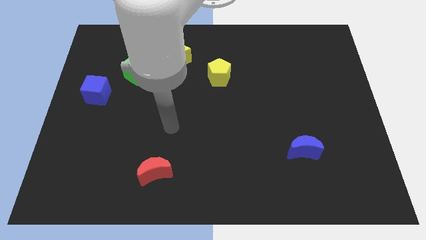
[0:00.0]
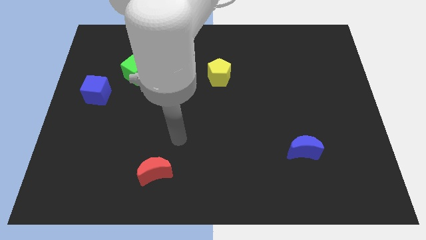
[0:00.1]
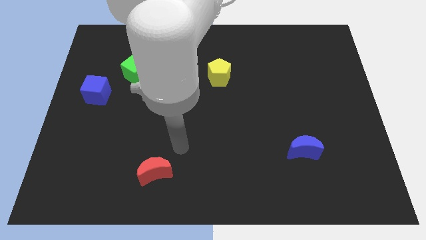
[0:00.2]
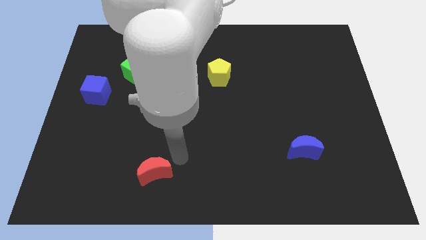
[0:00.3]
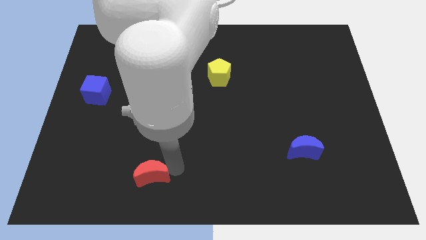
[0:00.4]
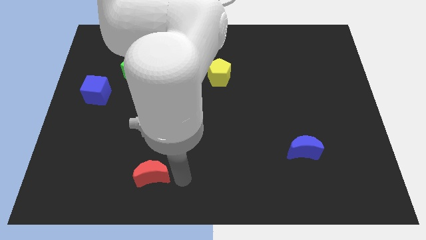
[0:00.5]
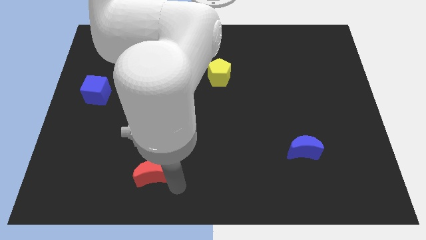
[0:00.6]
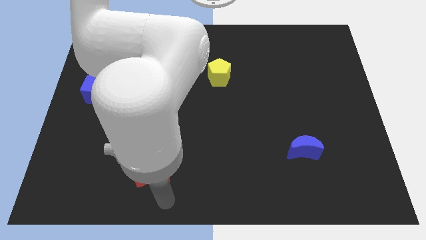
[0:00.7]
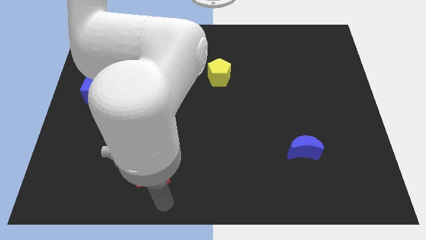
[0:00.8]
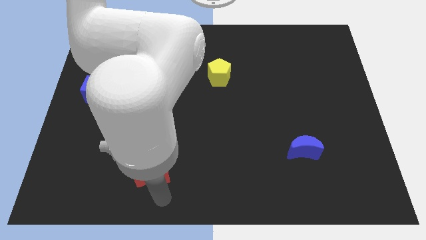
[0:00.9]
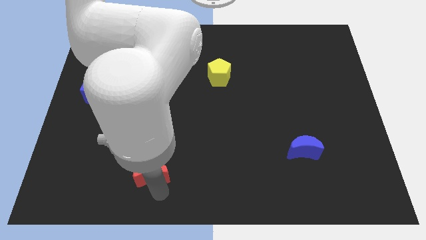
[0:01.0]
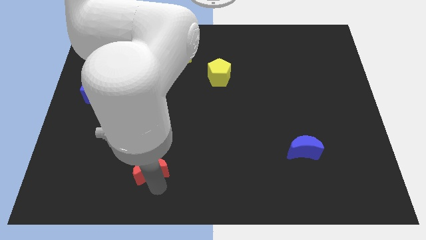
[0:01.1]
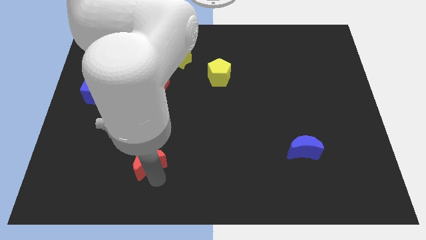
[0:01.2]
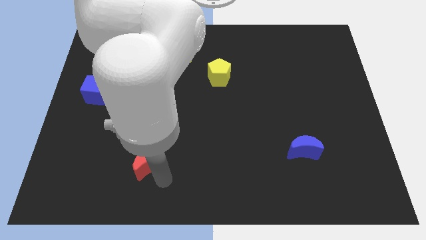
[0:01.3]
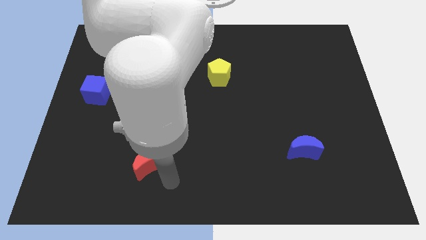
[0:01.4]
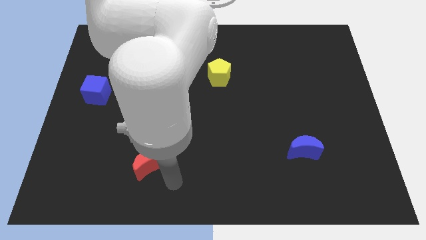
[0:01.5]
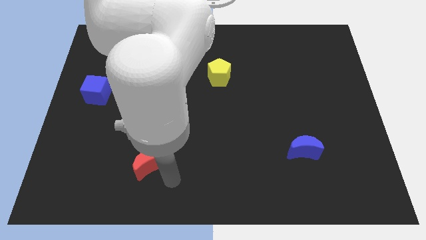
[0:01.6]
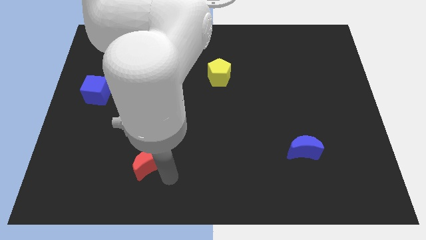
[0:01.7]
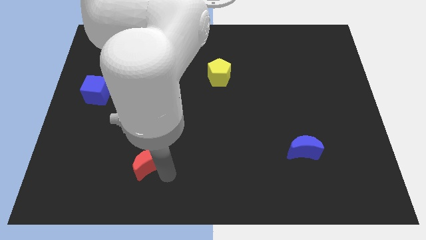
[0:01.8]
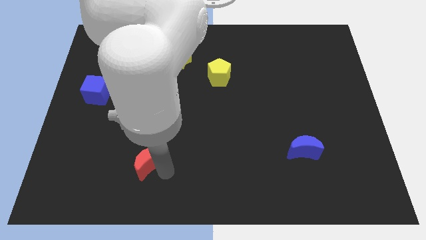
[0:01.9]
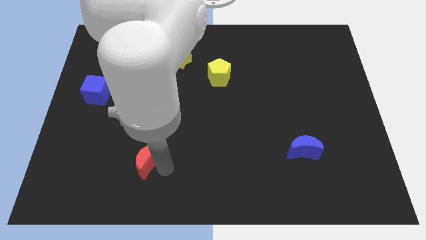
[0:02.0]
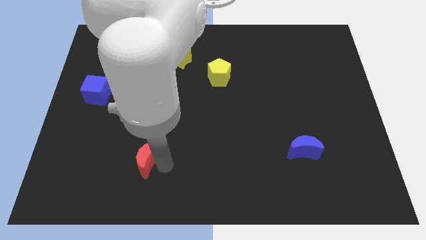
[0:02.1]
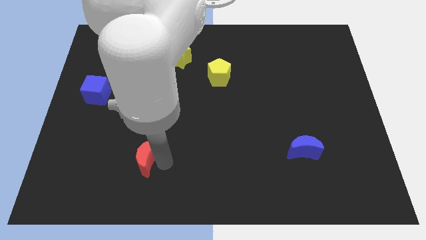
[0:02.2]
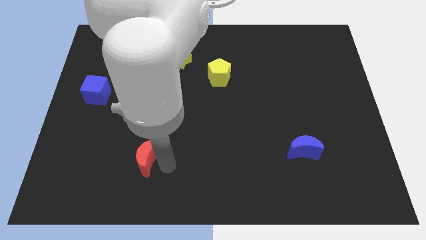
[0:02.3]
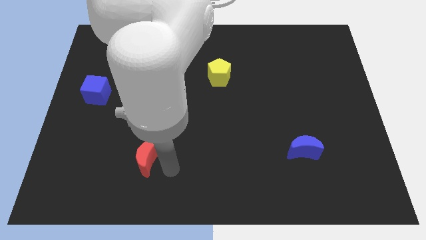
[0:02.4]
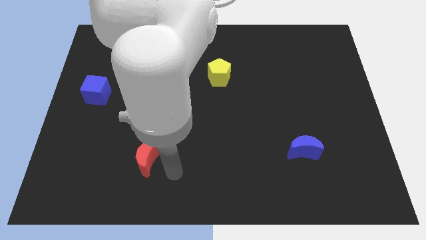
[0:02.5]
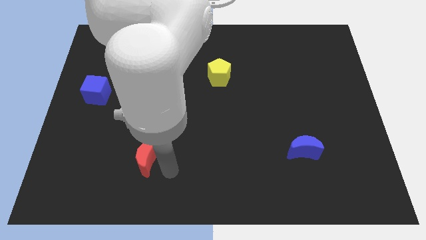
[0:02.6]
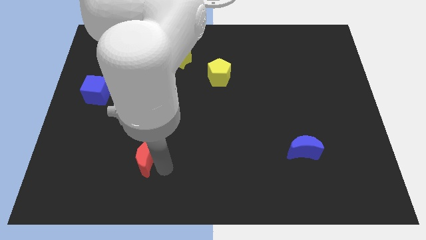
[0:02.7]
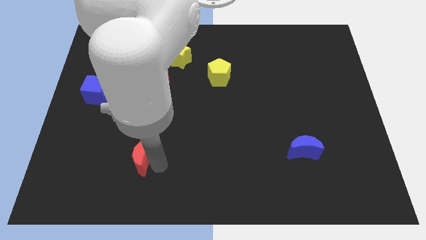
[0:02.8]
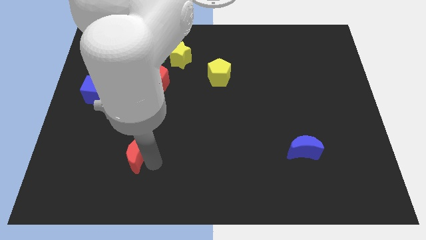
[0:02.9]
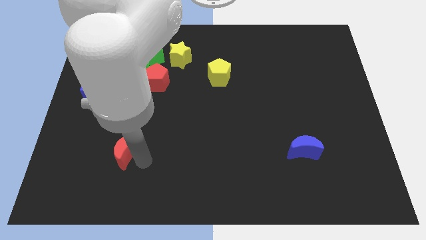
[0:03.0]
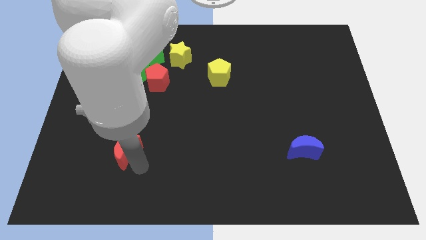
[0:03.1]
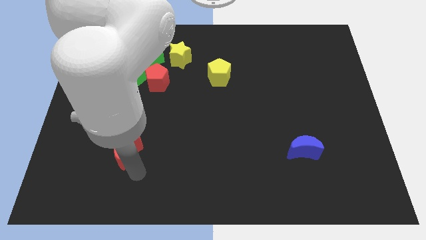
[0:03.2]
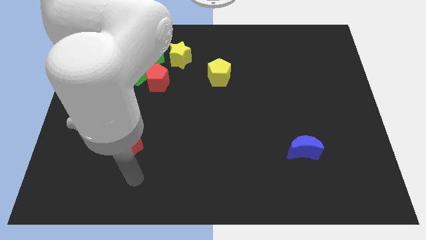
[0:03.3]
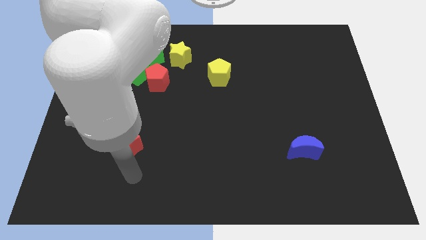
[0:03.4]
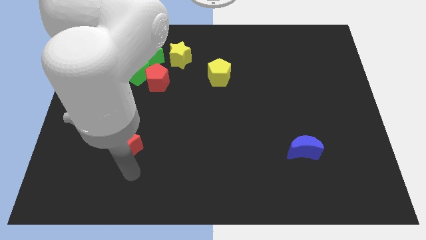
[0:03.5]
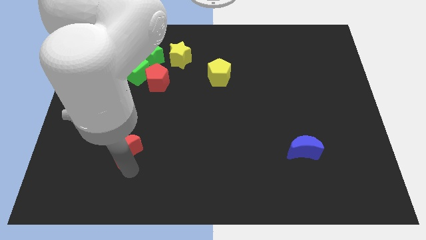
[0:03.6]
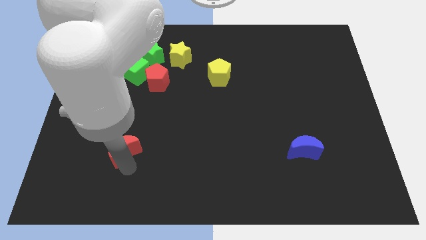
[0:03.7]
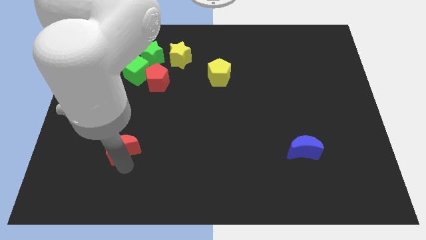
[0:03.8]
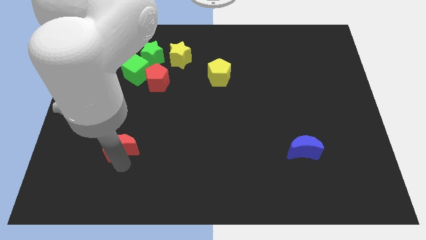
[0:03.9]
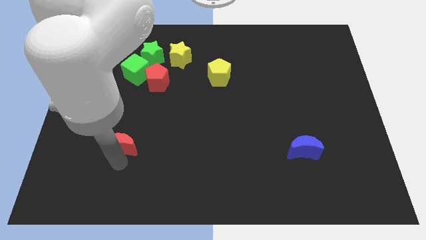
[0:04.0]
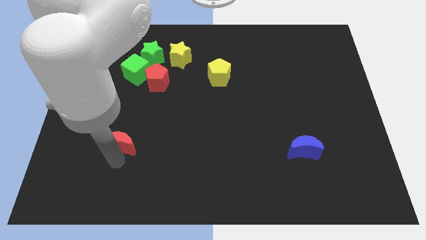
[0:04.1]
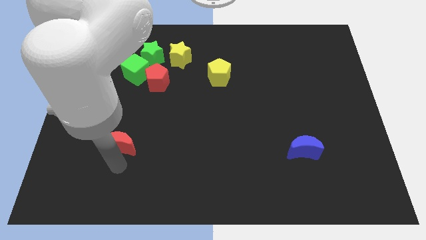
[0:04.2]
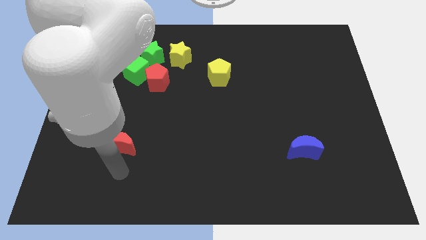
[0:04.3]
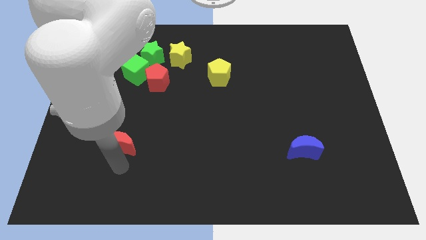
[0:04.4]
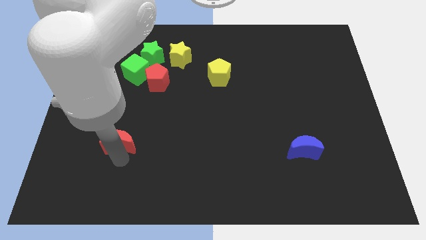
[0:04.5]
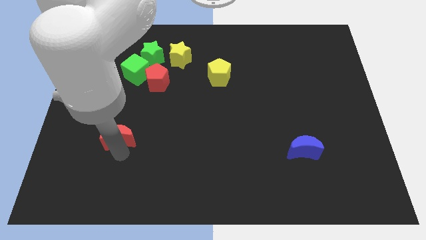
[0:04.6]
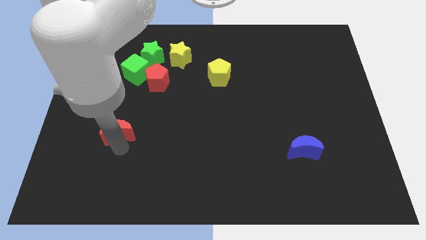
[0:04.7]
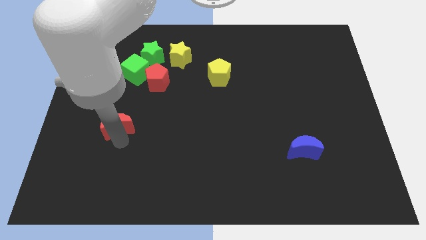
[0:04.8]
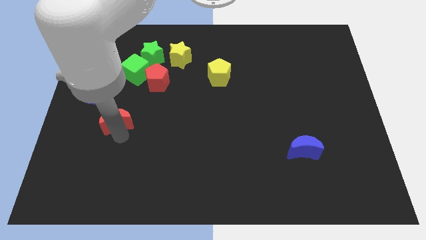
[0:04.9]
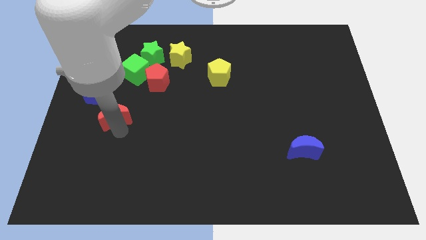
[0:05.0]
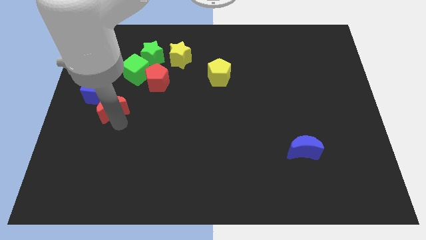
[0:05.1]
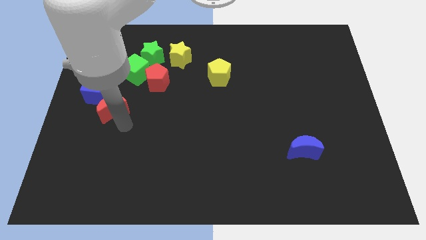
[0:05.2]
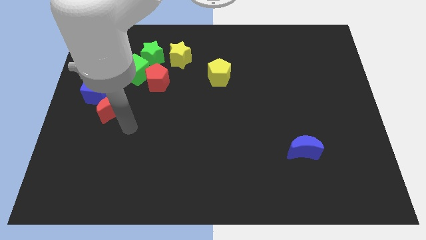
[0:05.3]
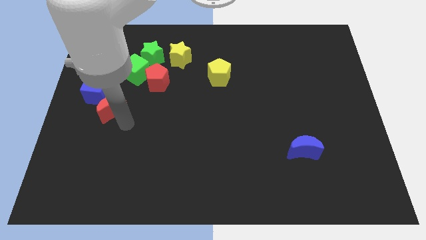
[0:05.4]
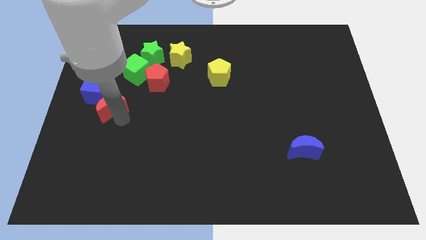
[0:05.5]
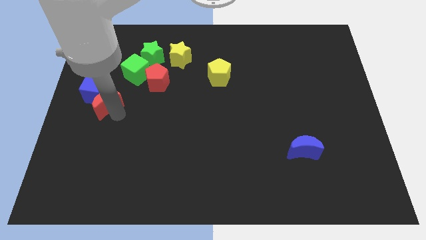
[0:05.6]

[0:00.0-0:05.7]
slide the red moon towards the blue cube

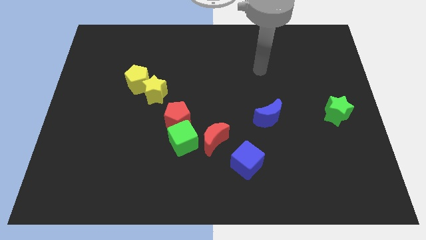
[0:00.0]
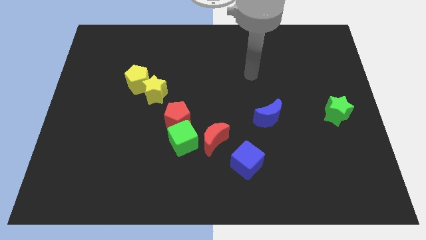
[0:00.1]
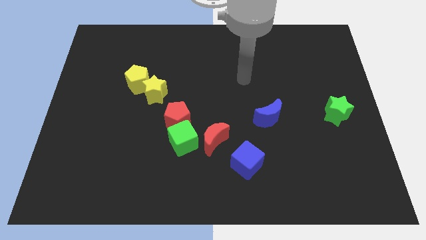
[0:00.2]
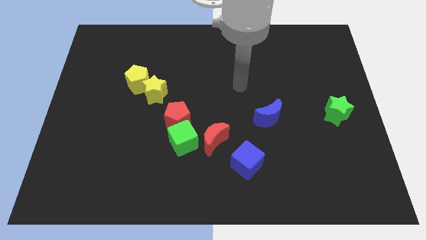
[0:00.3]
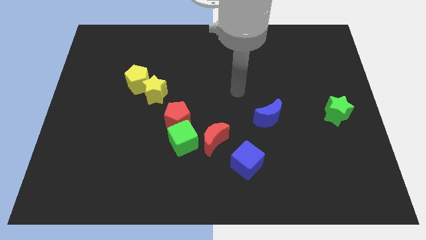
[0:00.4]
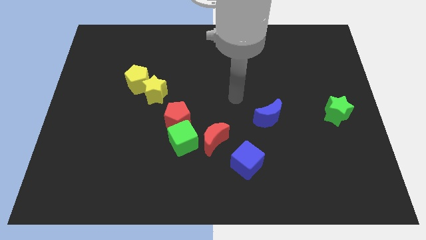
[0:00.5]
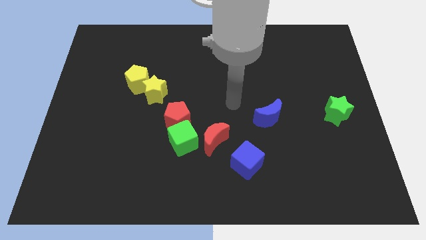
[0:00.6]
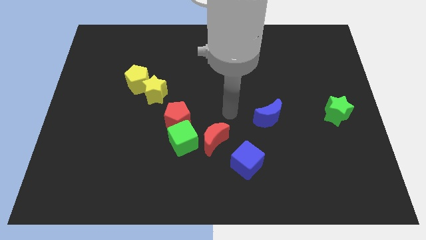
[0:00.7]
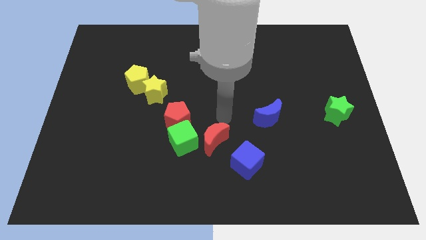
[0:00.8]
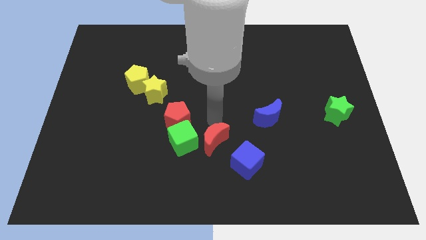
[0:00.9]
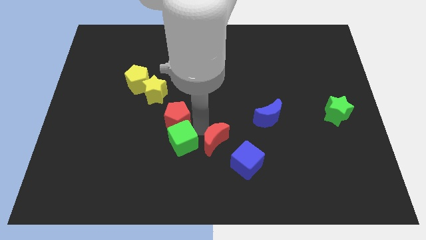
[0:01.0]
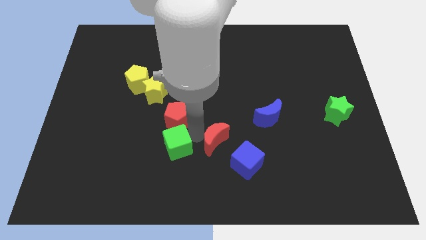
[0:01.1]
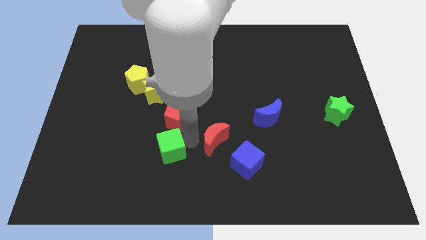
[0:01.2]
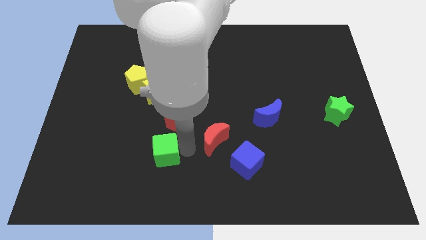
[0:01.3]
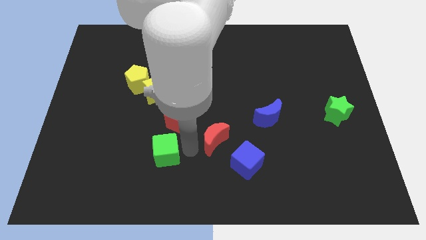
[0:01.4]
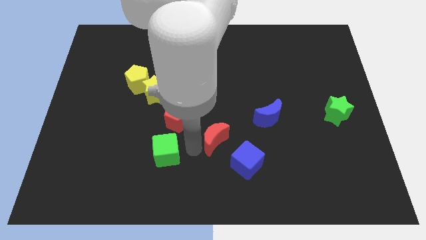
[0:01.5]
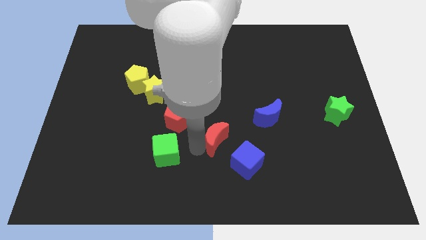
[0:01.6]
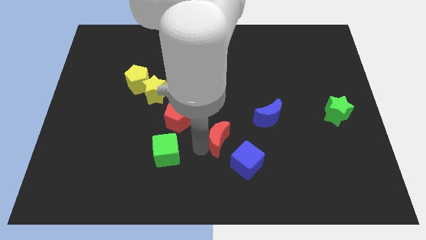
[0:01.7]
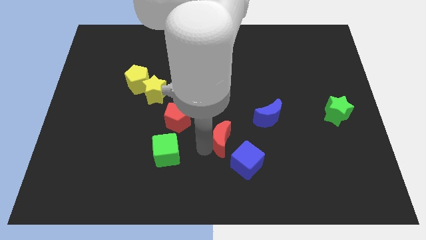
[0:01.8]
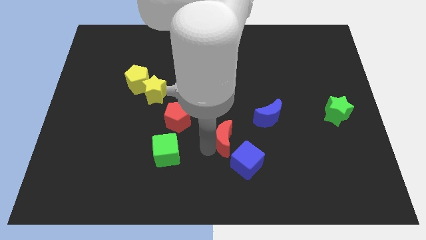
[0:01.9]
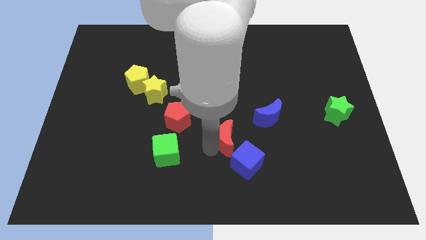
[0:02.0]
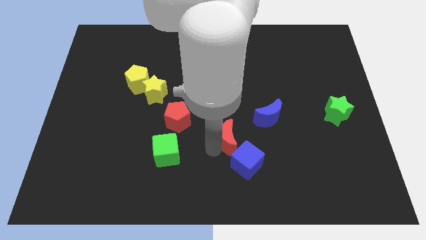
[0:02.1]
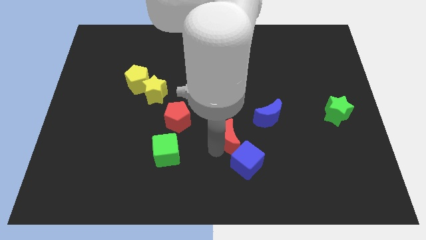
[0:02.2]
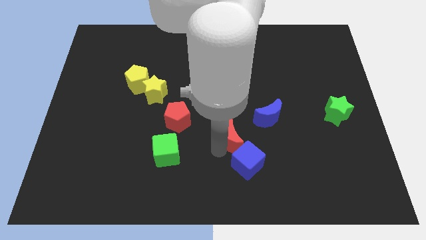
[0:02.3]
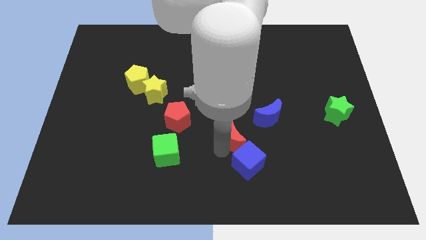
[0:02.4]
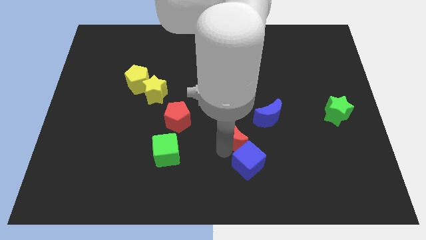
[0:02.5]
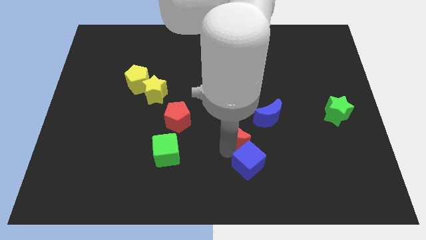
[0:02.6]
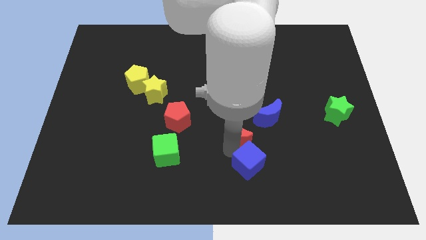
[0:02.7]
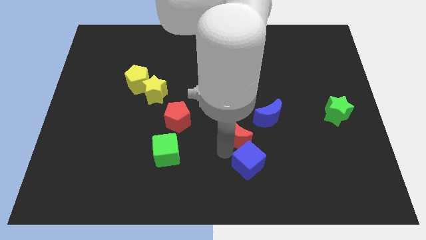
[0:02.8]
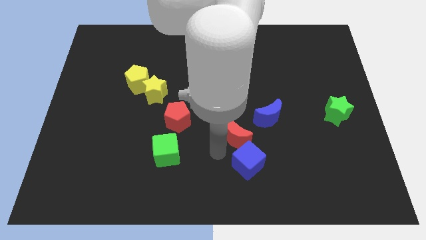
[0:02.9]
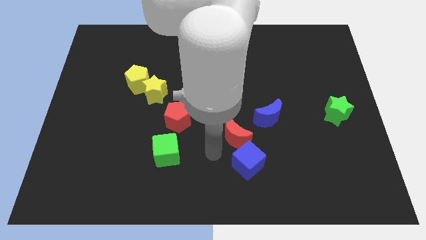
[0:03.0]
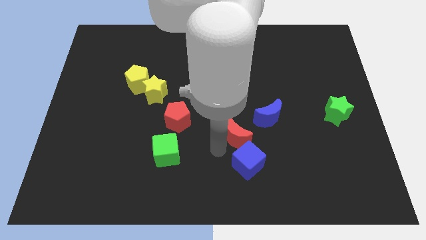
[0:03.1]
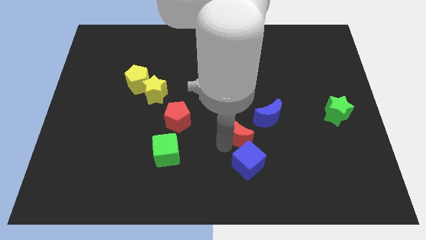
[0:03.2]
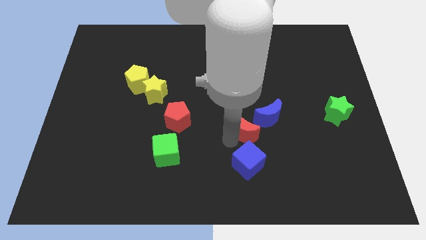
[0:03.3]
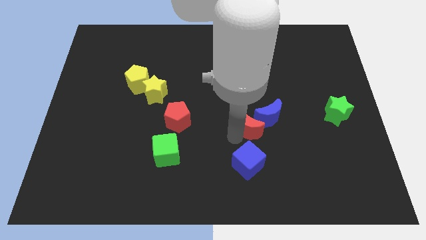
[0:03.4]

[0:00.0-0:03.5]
move the red moon towards the blue moon
